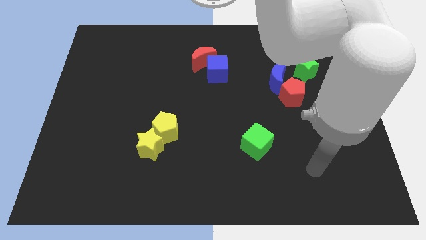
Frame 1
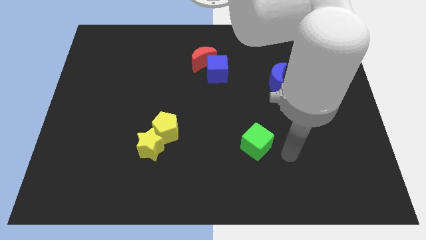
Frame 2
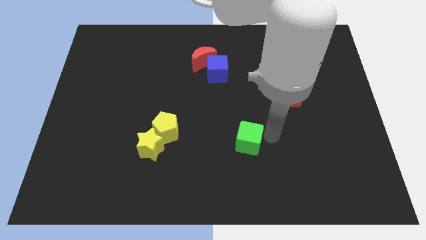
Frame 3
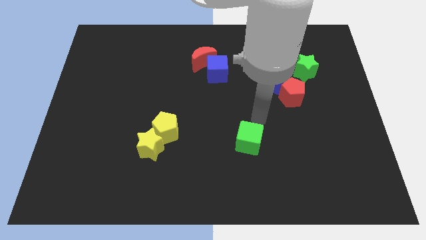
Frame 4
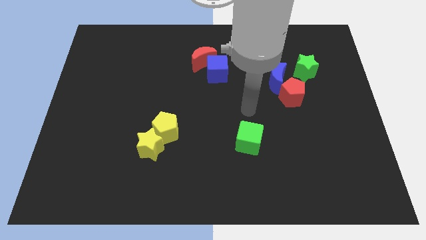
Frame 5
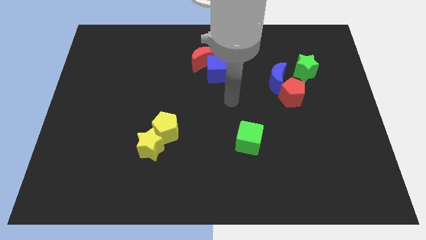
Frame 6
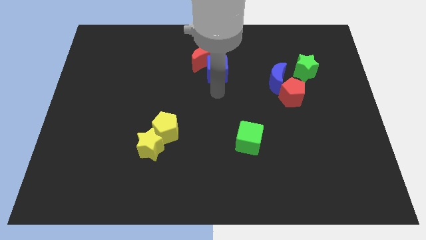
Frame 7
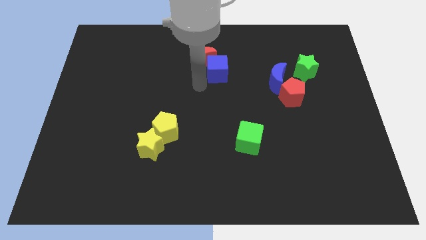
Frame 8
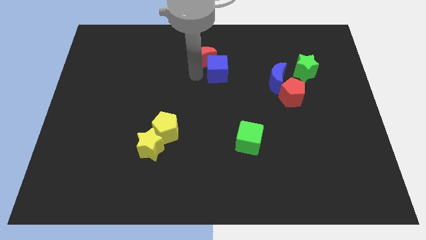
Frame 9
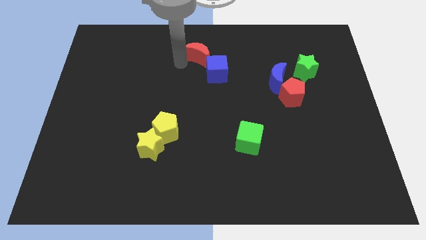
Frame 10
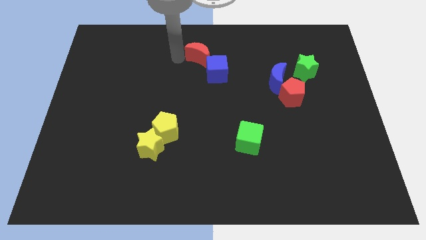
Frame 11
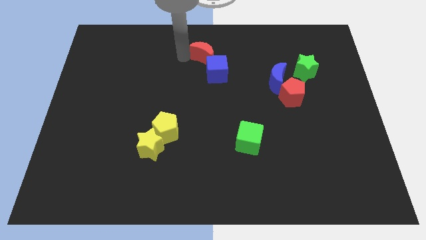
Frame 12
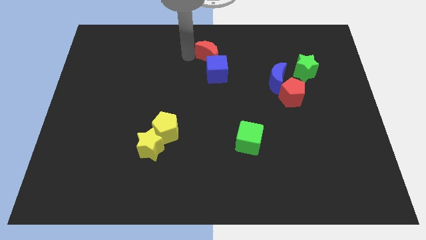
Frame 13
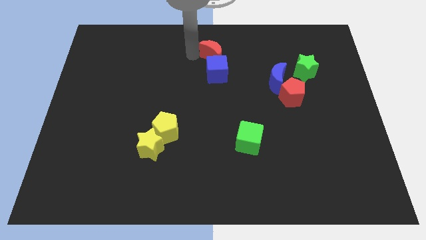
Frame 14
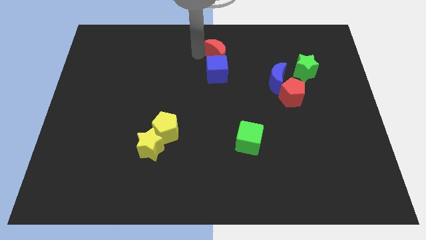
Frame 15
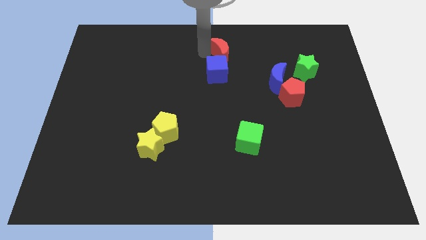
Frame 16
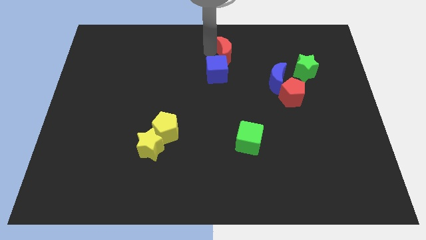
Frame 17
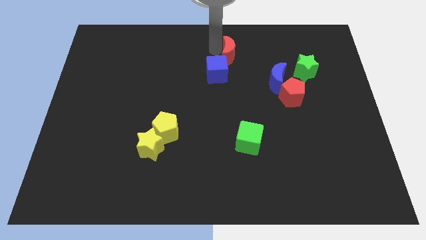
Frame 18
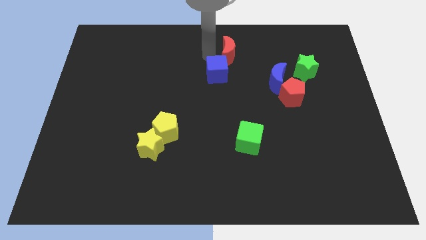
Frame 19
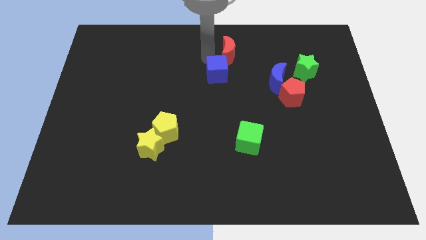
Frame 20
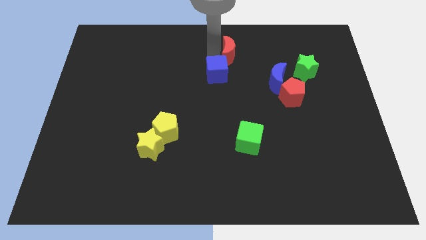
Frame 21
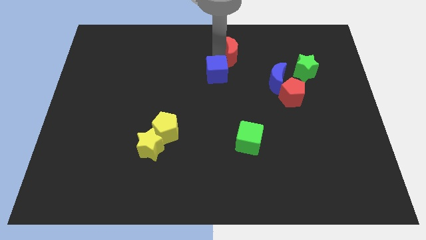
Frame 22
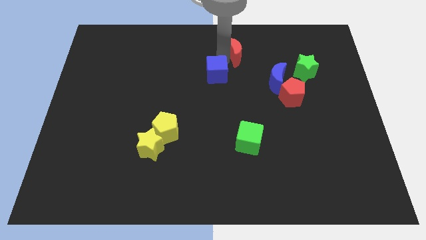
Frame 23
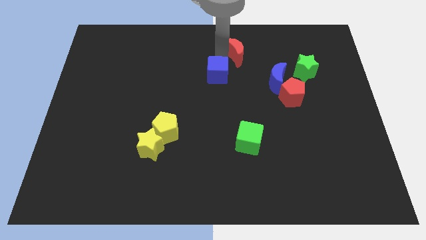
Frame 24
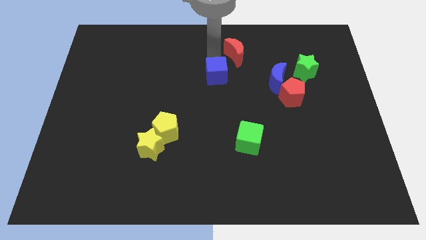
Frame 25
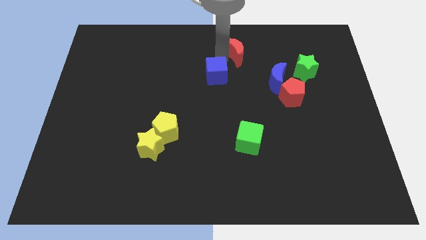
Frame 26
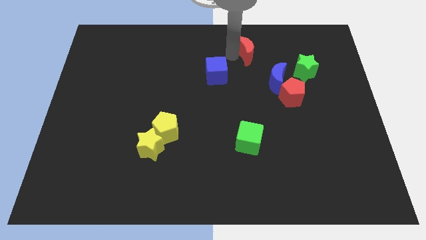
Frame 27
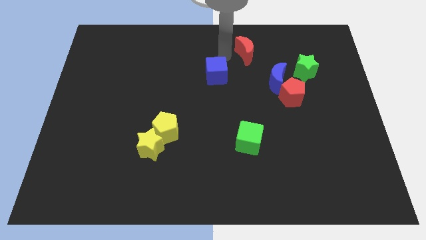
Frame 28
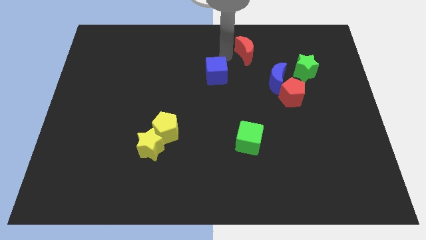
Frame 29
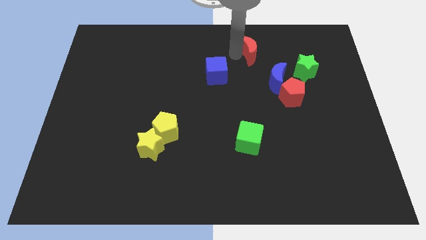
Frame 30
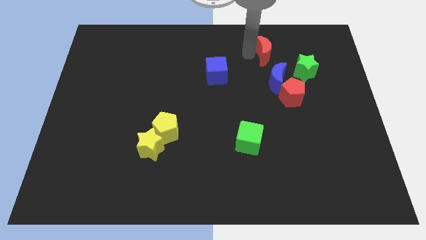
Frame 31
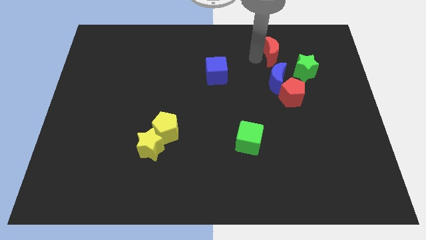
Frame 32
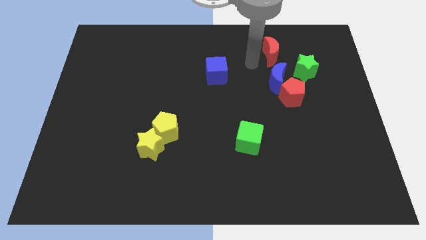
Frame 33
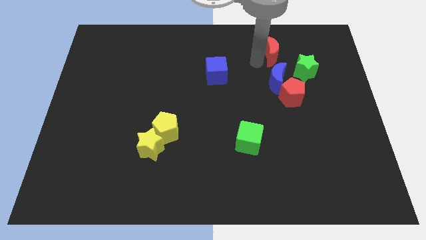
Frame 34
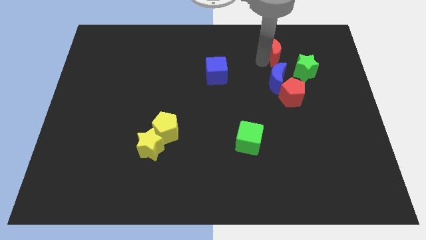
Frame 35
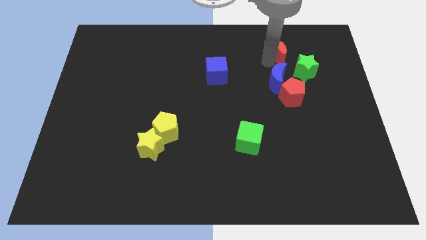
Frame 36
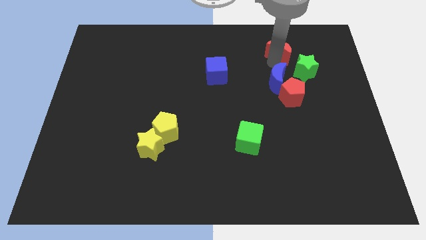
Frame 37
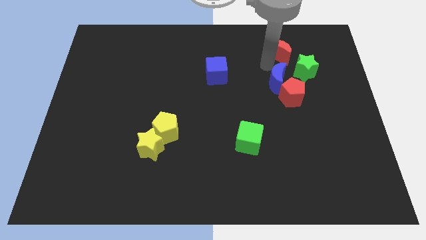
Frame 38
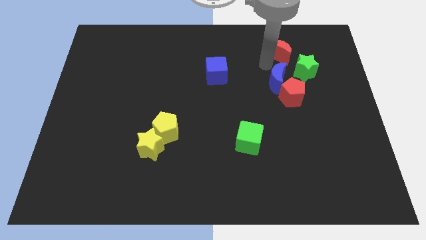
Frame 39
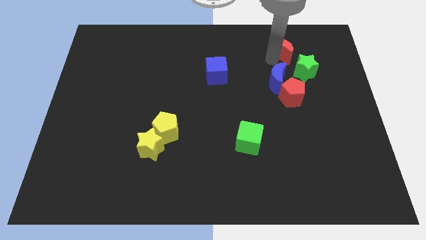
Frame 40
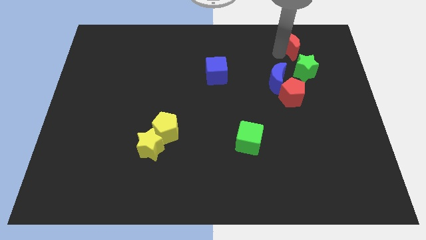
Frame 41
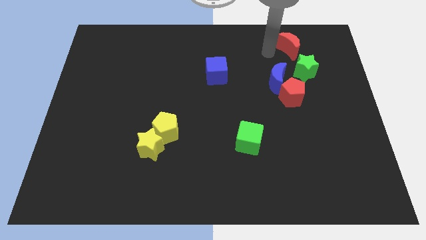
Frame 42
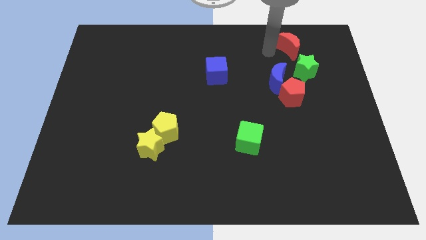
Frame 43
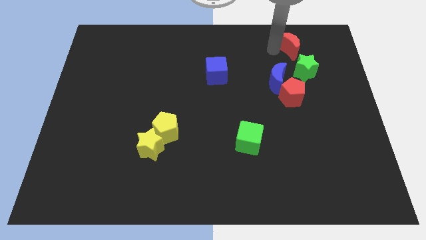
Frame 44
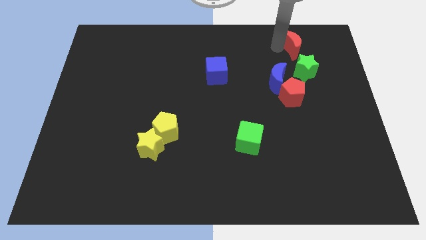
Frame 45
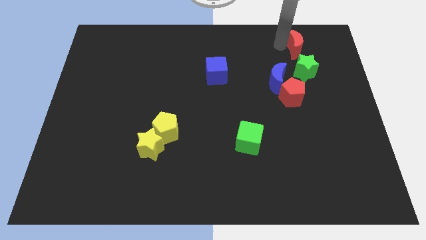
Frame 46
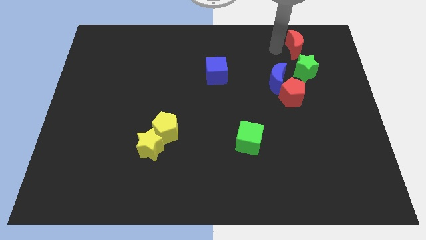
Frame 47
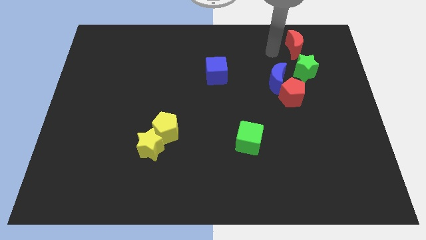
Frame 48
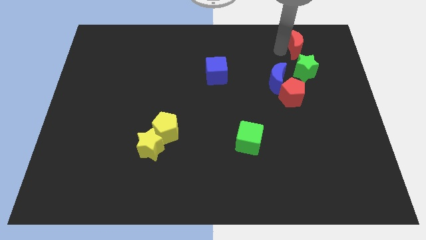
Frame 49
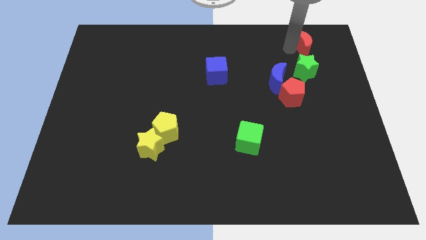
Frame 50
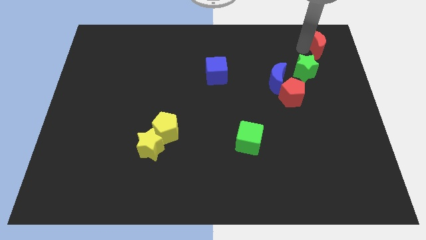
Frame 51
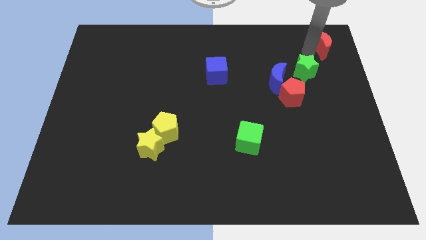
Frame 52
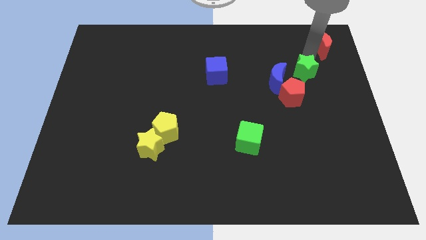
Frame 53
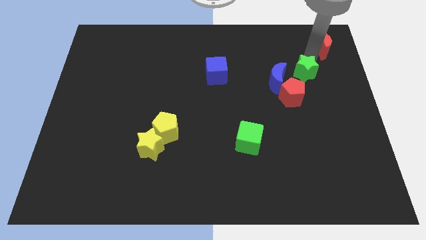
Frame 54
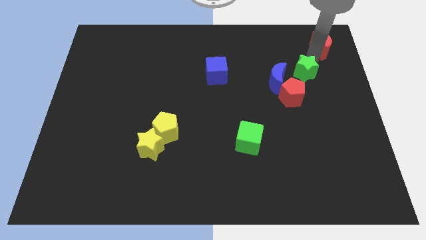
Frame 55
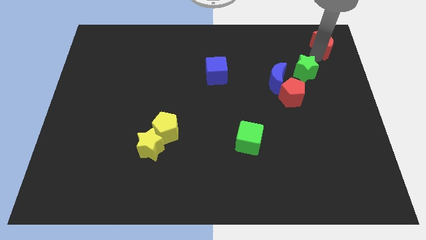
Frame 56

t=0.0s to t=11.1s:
put the red moon to the upper right corner

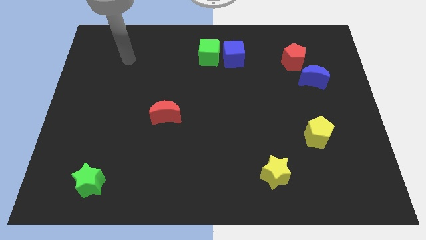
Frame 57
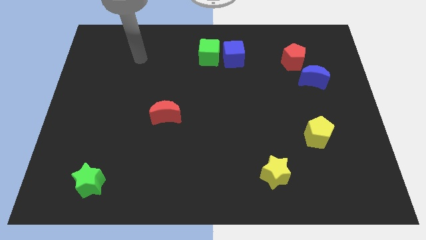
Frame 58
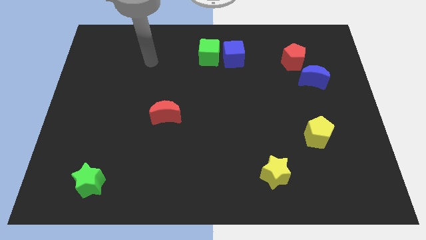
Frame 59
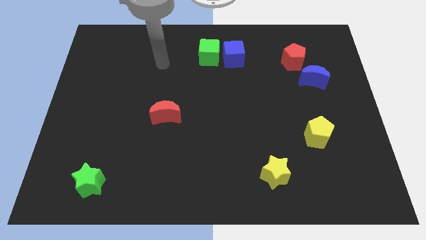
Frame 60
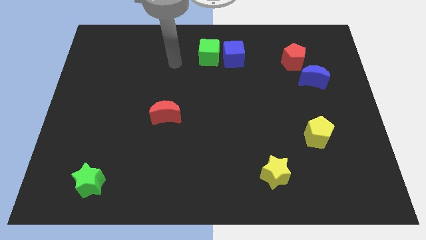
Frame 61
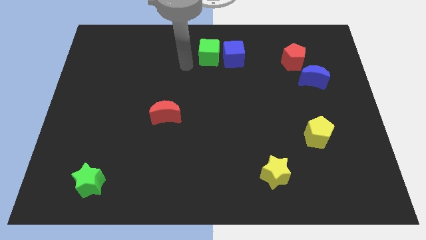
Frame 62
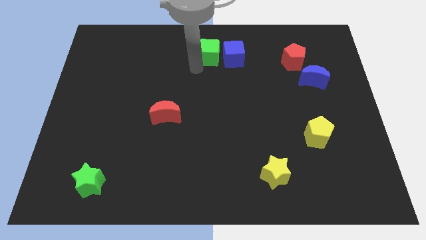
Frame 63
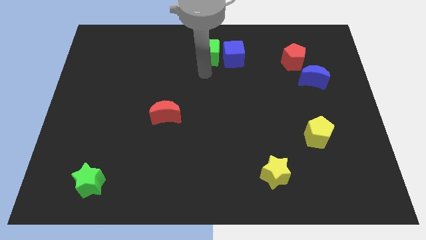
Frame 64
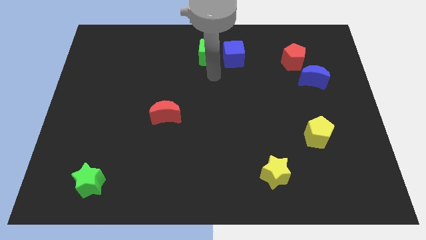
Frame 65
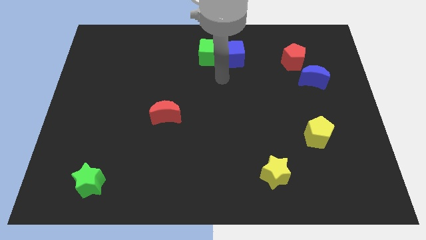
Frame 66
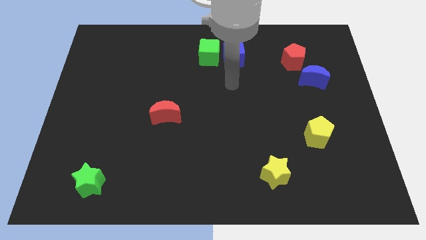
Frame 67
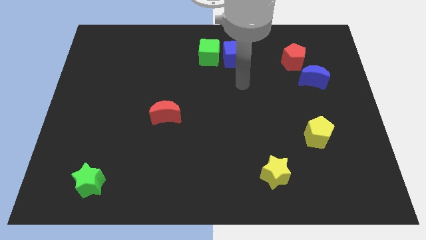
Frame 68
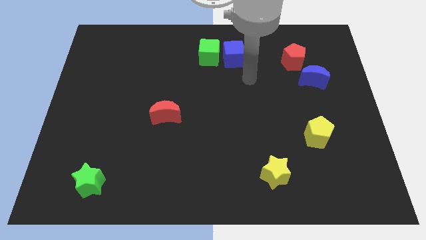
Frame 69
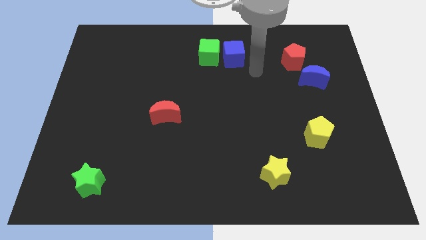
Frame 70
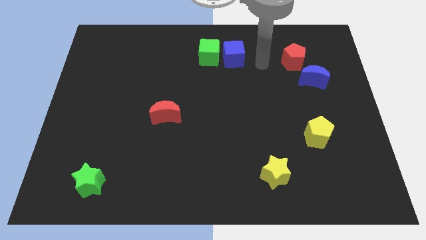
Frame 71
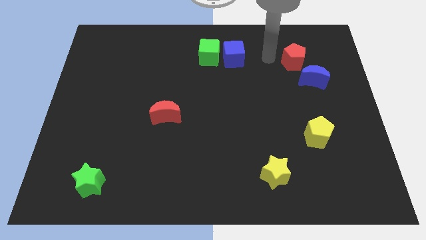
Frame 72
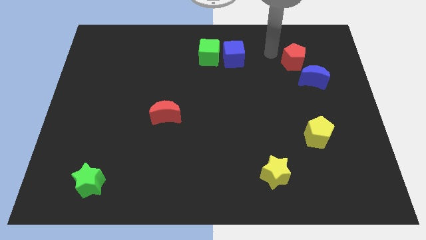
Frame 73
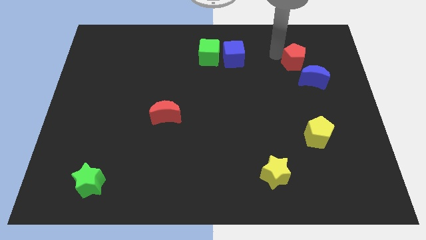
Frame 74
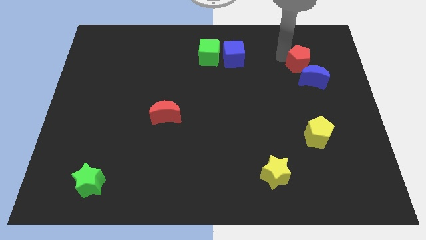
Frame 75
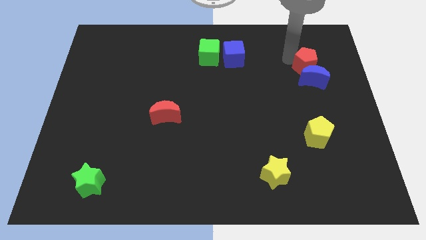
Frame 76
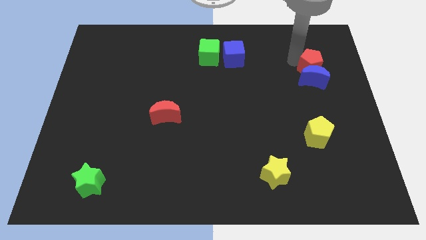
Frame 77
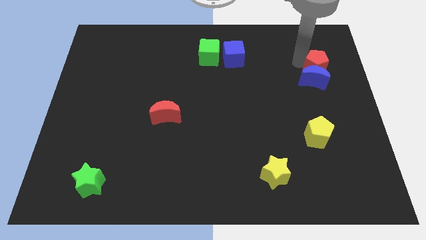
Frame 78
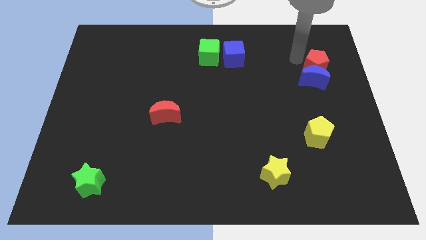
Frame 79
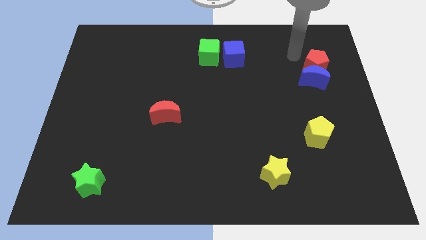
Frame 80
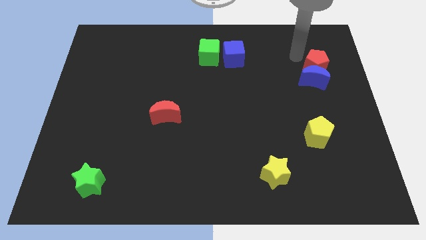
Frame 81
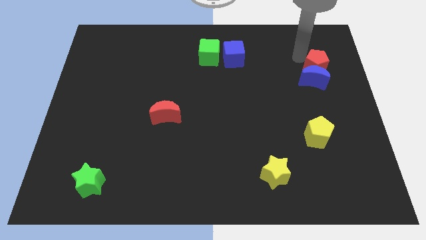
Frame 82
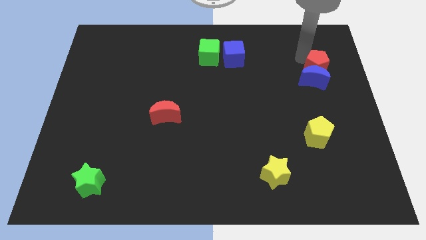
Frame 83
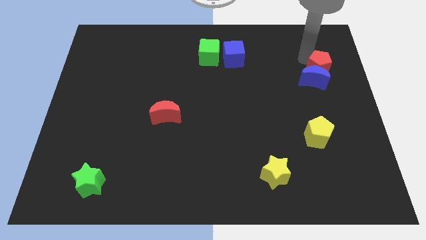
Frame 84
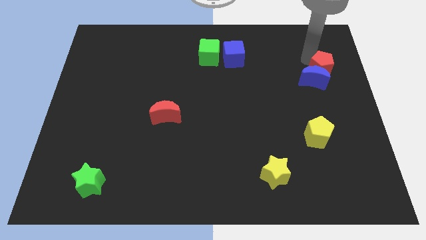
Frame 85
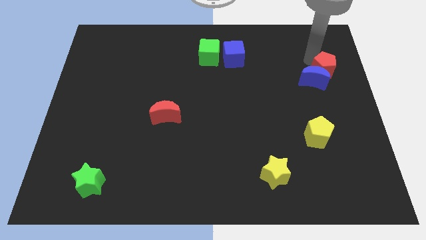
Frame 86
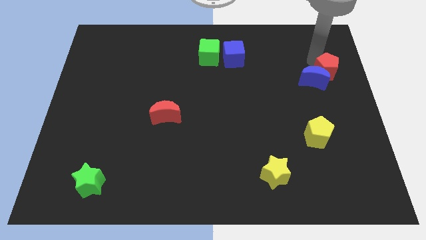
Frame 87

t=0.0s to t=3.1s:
put the red pentagon to the center right
